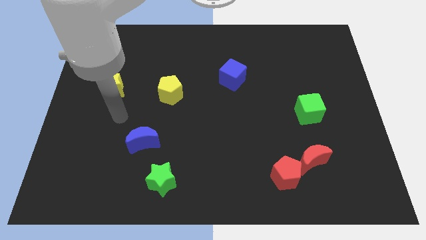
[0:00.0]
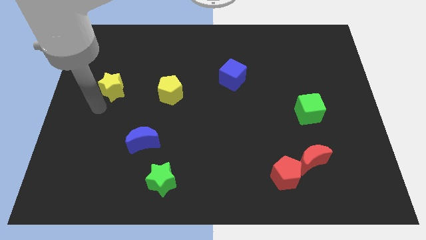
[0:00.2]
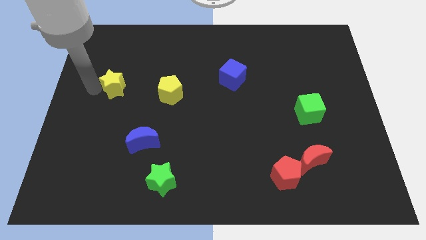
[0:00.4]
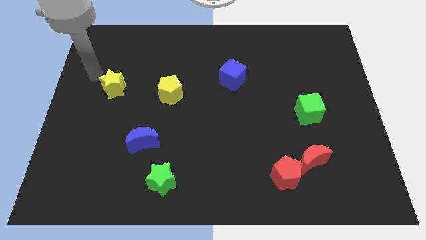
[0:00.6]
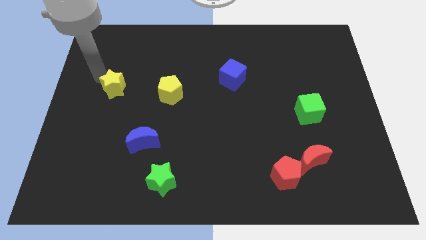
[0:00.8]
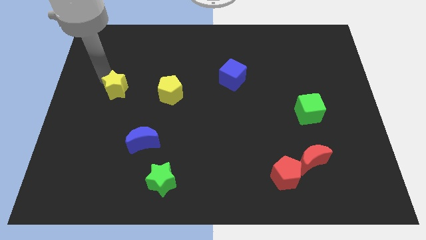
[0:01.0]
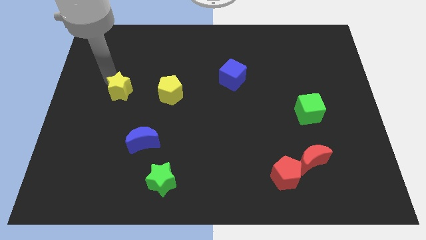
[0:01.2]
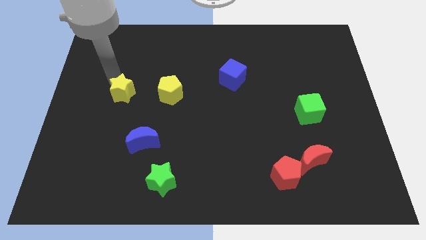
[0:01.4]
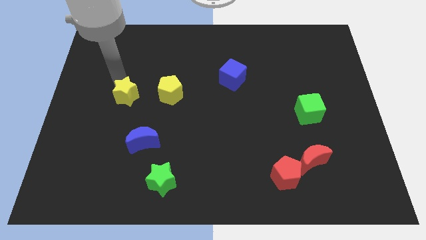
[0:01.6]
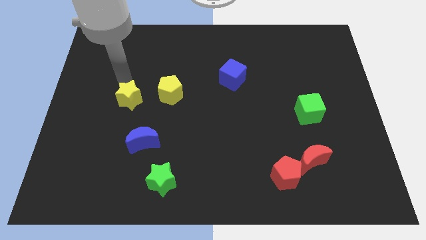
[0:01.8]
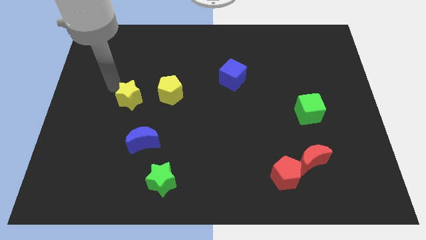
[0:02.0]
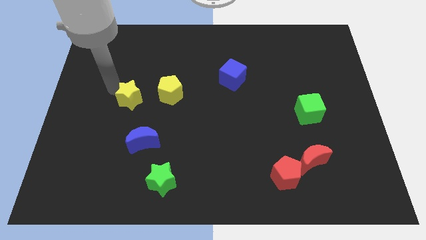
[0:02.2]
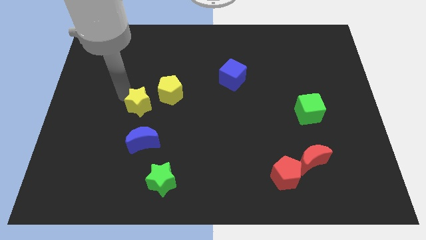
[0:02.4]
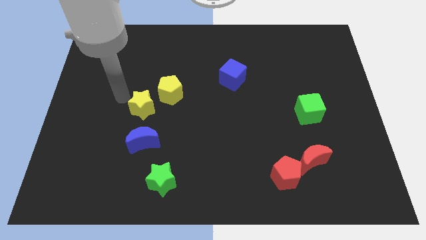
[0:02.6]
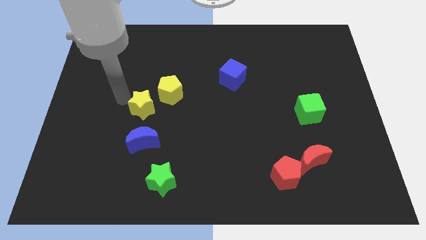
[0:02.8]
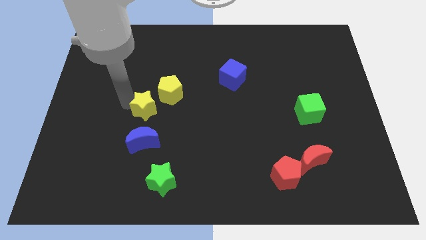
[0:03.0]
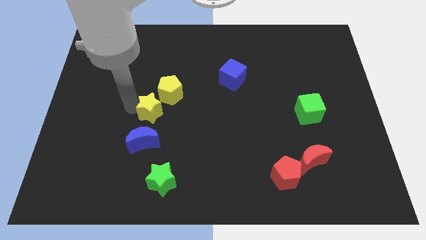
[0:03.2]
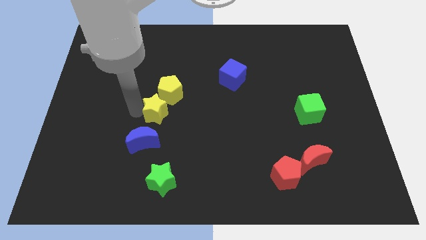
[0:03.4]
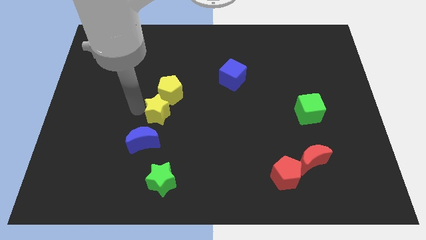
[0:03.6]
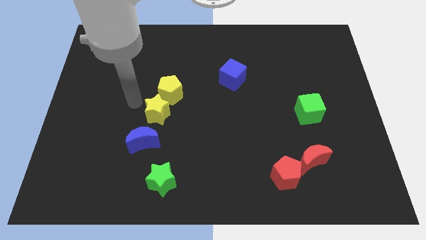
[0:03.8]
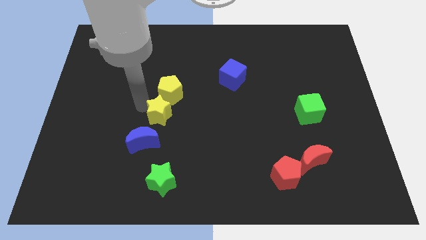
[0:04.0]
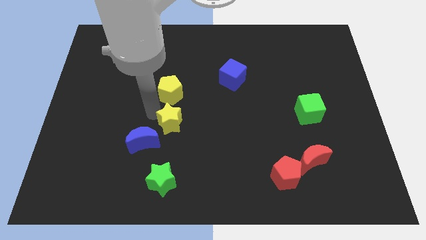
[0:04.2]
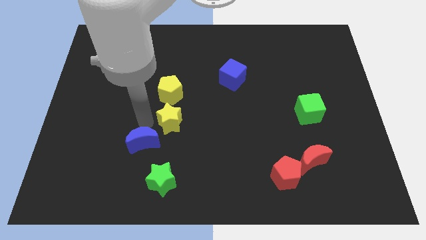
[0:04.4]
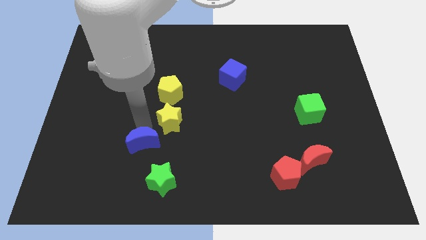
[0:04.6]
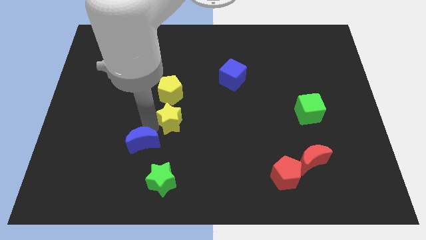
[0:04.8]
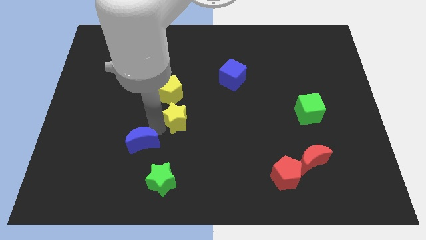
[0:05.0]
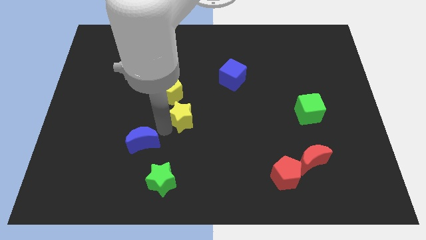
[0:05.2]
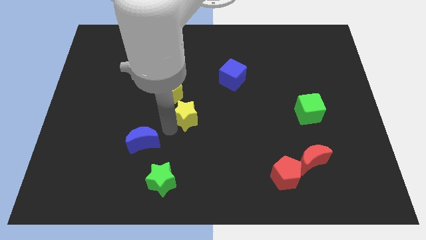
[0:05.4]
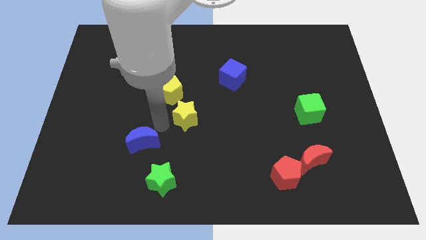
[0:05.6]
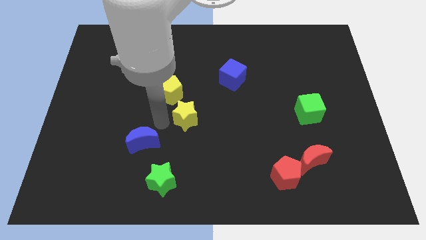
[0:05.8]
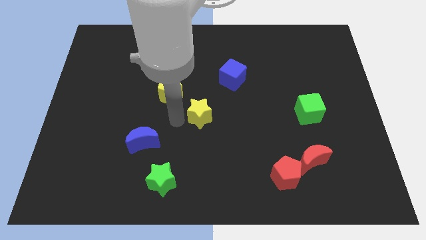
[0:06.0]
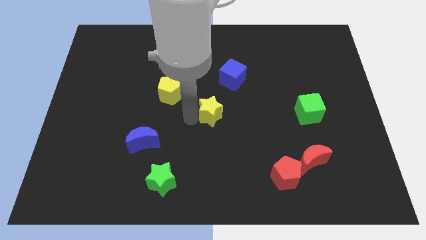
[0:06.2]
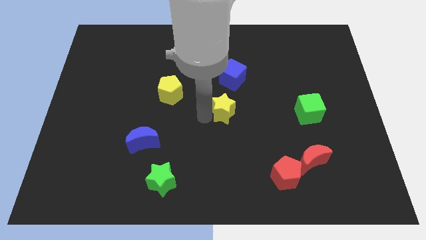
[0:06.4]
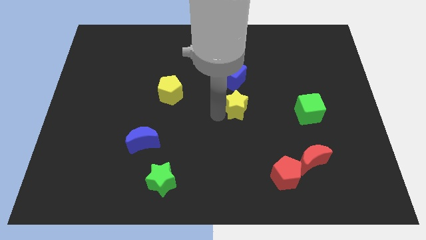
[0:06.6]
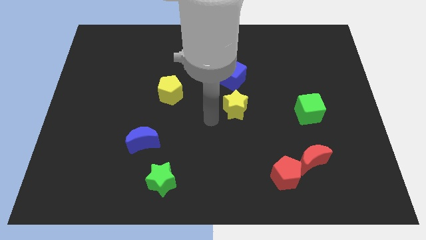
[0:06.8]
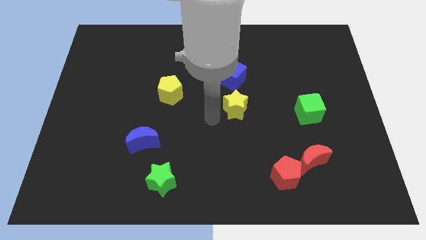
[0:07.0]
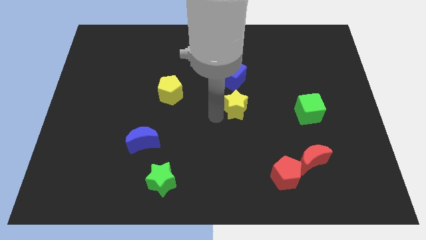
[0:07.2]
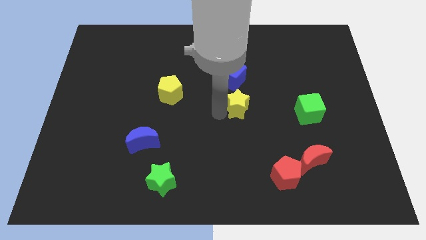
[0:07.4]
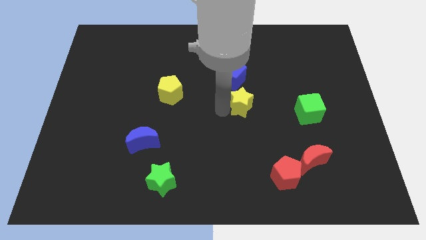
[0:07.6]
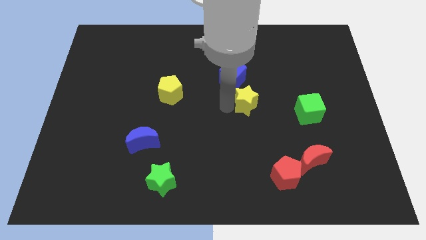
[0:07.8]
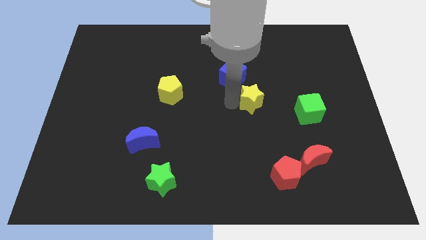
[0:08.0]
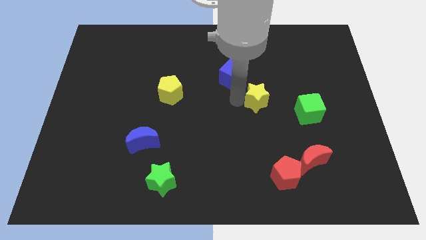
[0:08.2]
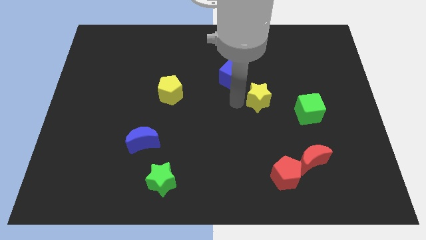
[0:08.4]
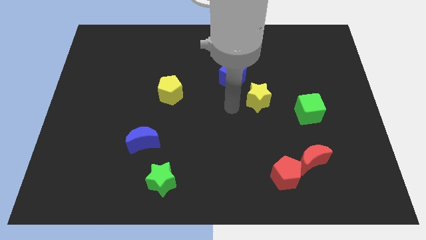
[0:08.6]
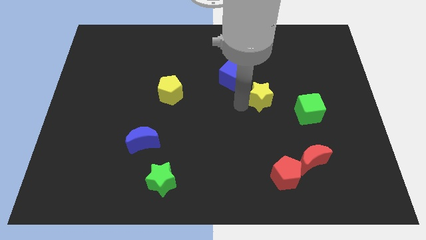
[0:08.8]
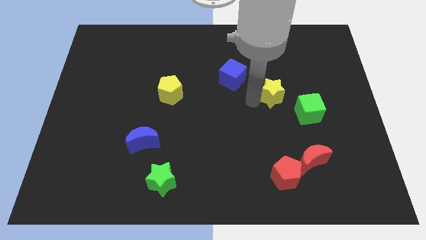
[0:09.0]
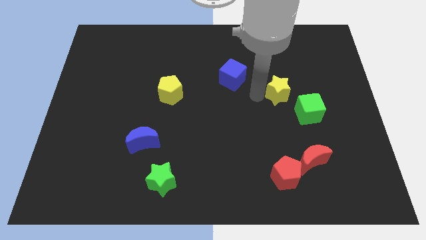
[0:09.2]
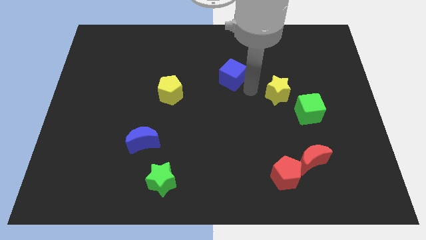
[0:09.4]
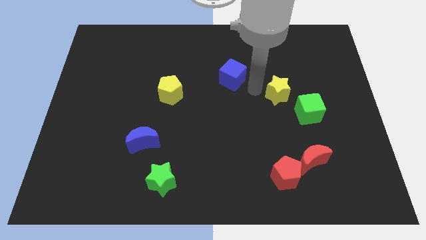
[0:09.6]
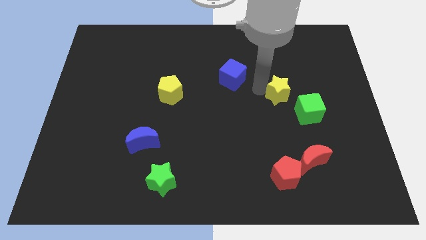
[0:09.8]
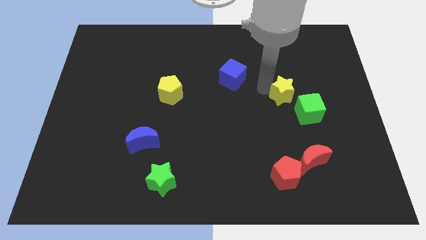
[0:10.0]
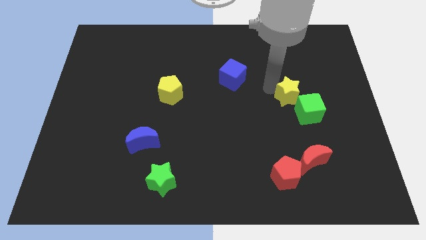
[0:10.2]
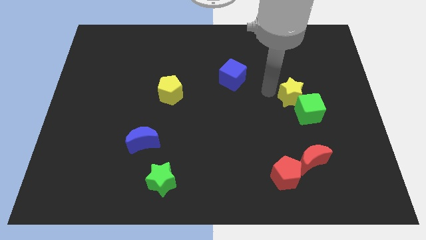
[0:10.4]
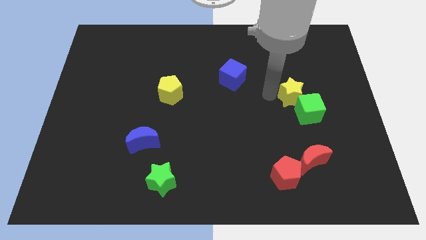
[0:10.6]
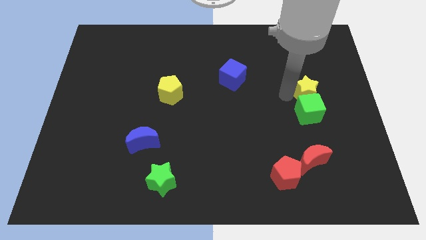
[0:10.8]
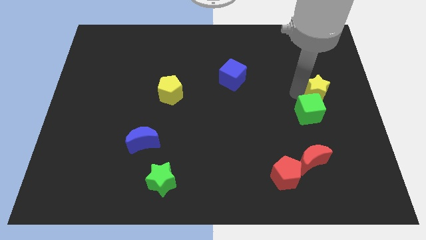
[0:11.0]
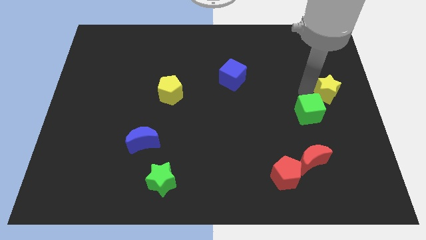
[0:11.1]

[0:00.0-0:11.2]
slide the yellow star to the right side of the board
